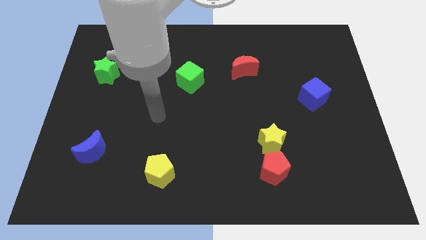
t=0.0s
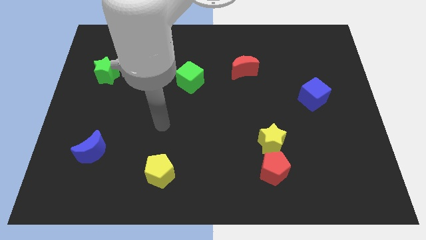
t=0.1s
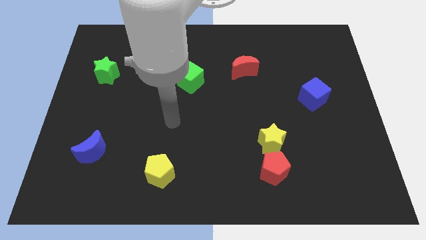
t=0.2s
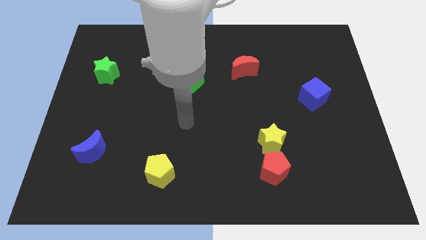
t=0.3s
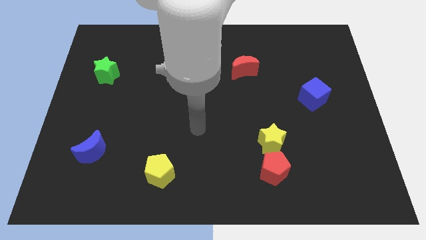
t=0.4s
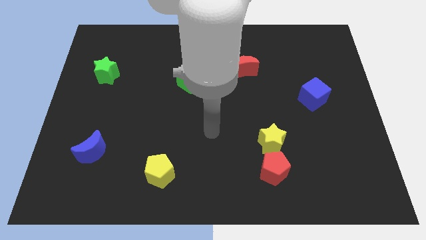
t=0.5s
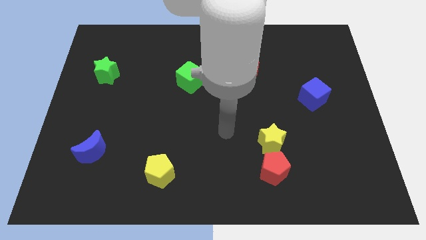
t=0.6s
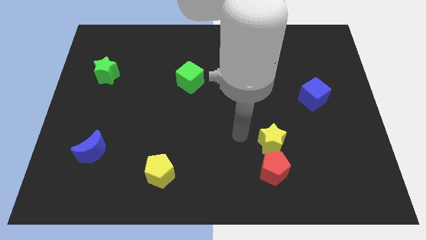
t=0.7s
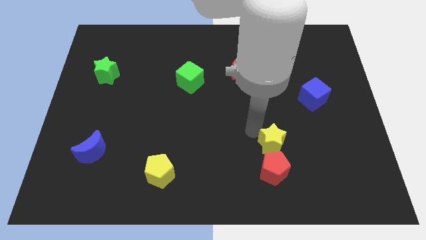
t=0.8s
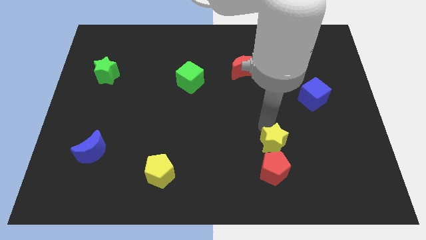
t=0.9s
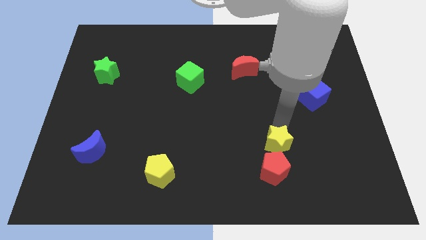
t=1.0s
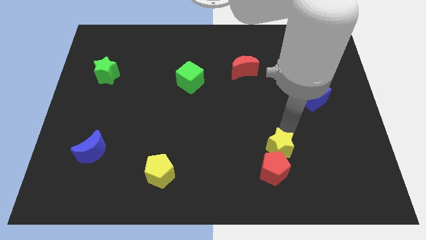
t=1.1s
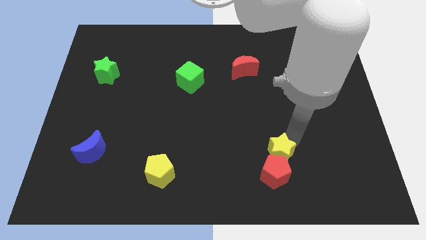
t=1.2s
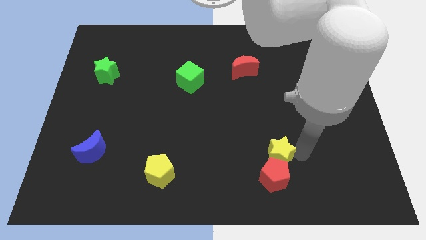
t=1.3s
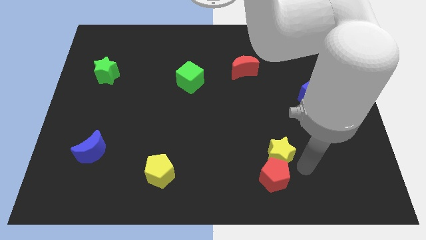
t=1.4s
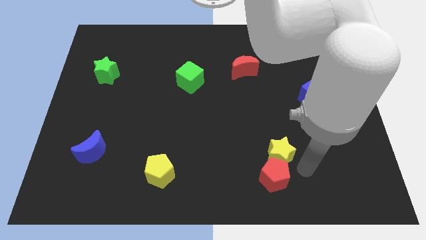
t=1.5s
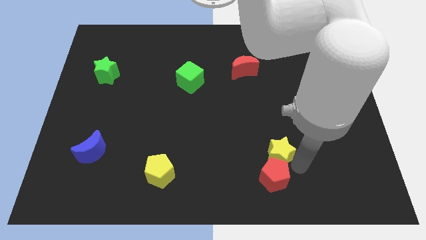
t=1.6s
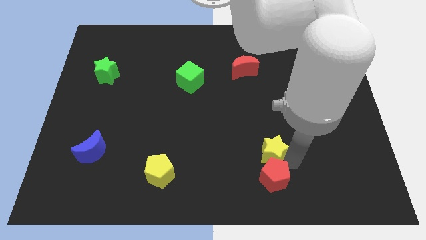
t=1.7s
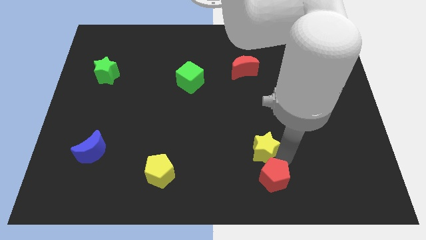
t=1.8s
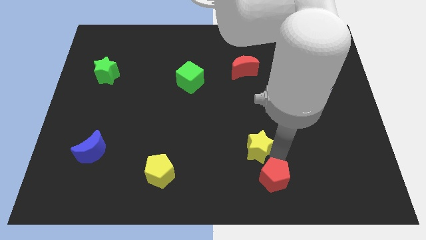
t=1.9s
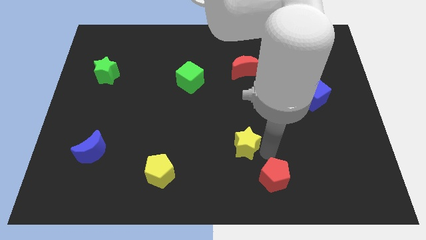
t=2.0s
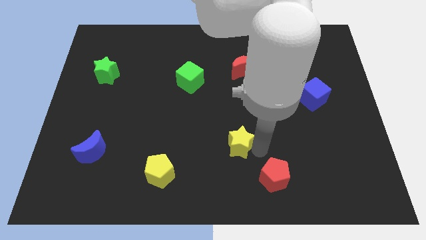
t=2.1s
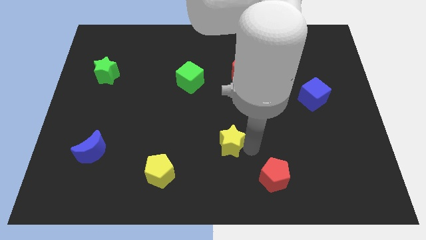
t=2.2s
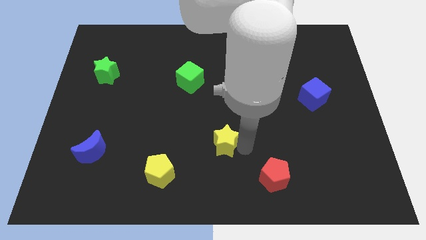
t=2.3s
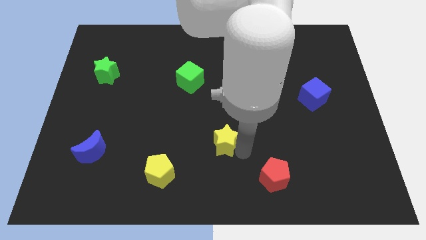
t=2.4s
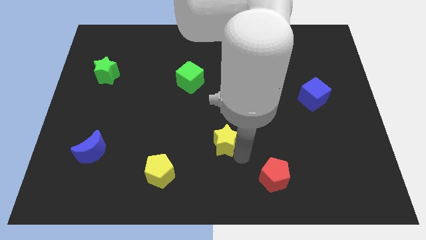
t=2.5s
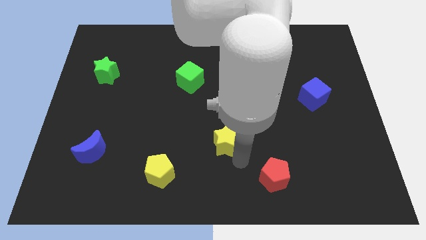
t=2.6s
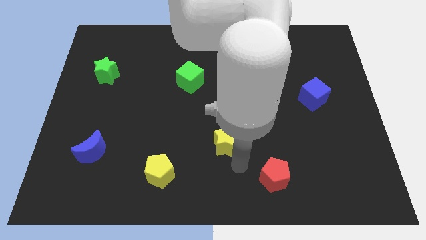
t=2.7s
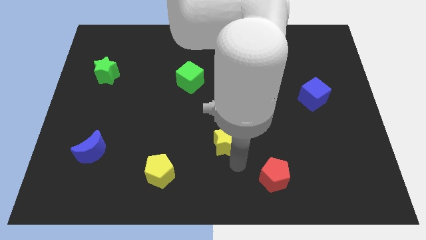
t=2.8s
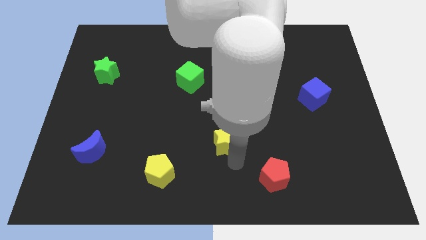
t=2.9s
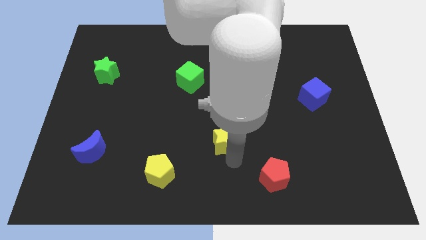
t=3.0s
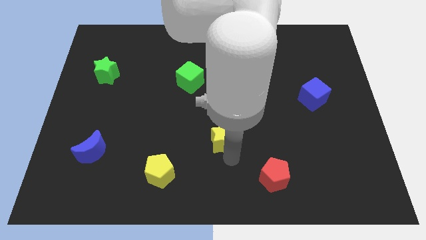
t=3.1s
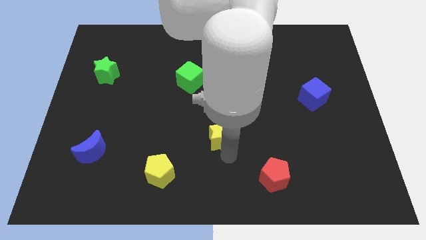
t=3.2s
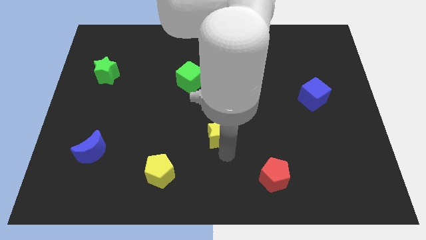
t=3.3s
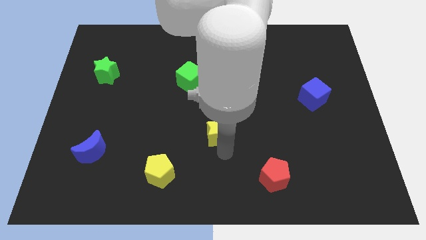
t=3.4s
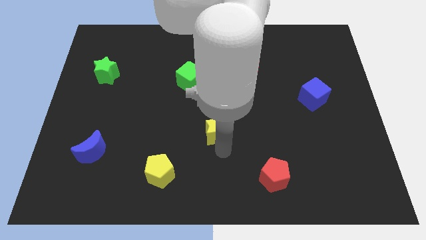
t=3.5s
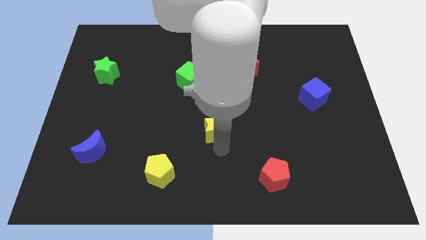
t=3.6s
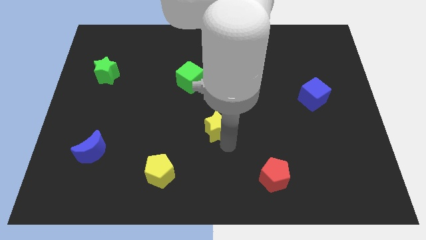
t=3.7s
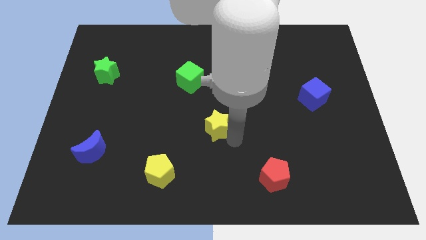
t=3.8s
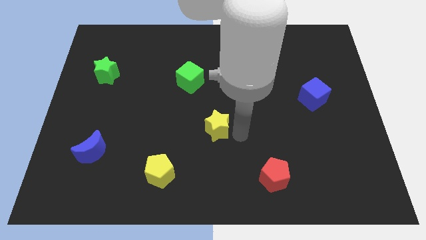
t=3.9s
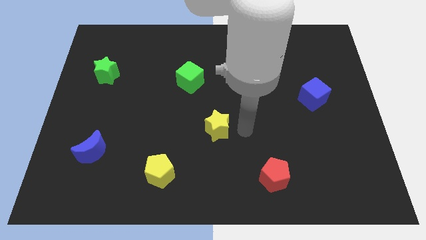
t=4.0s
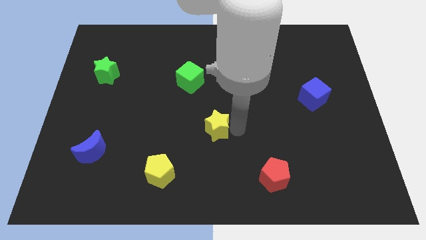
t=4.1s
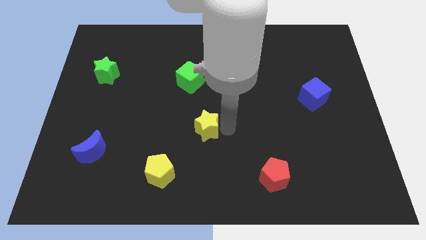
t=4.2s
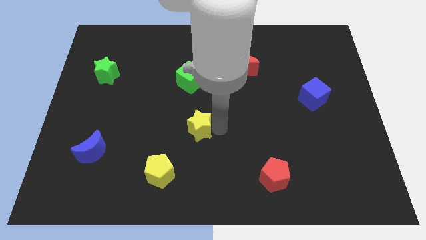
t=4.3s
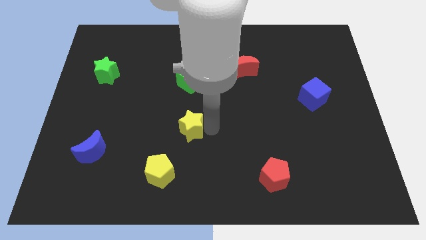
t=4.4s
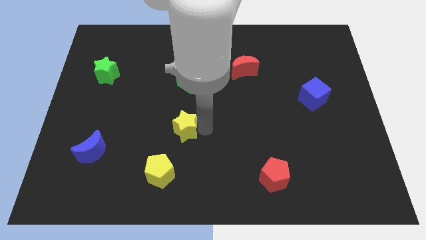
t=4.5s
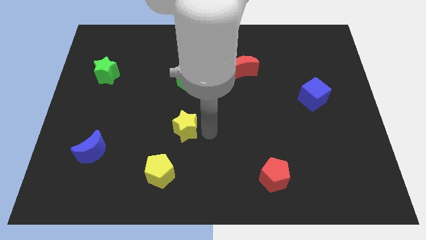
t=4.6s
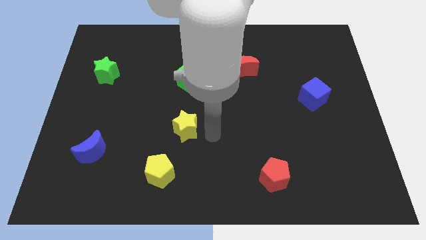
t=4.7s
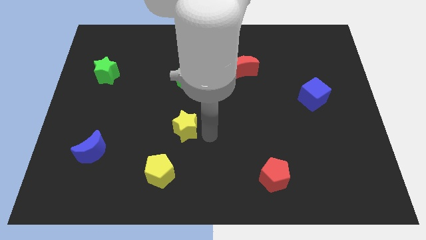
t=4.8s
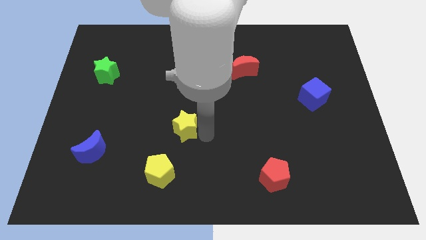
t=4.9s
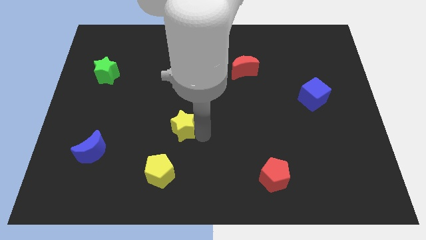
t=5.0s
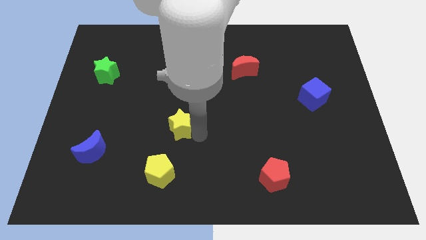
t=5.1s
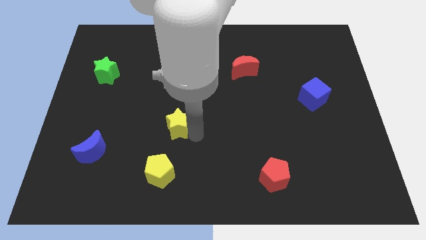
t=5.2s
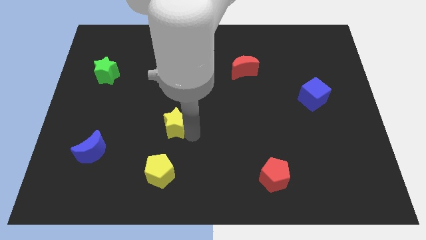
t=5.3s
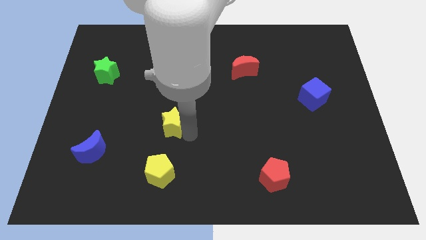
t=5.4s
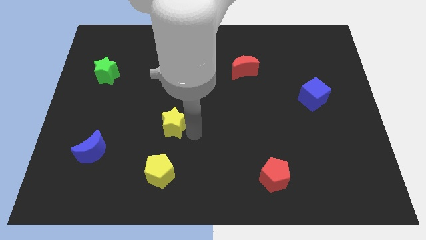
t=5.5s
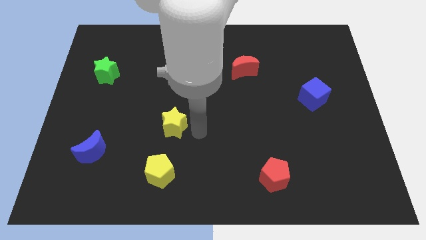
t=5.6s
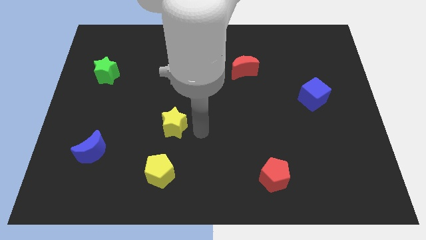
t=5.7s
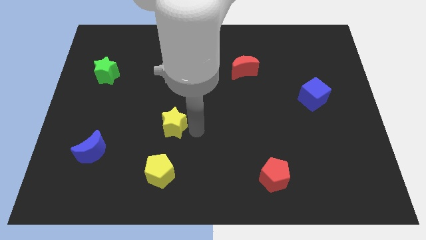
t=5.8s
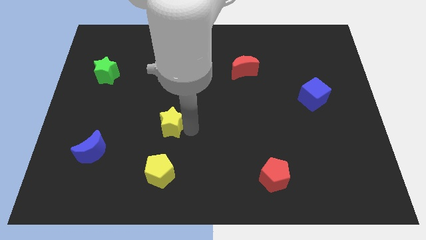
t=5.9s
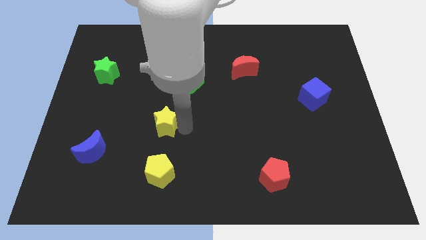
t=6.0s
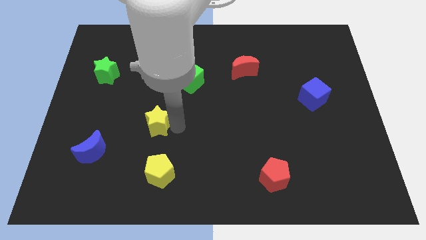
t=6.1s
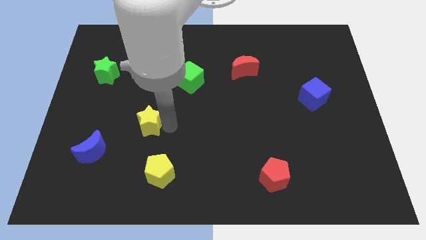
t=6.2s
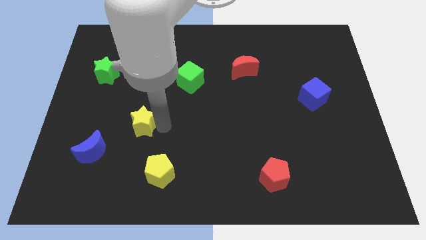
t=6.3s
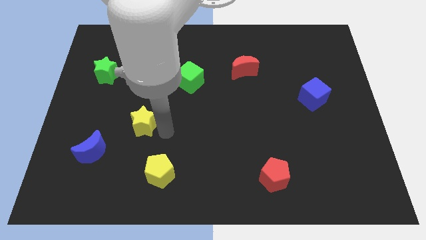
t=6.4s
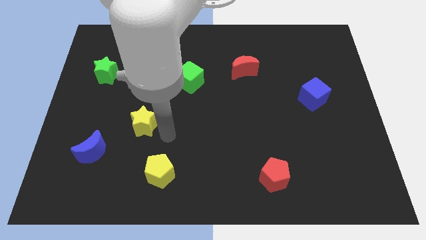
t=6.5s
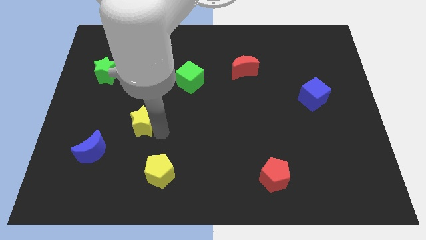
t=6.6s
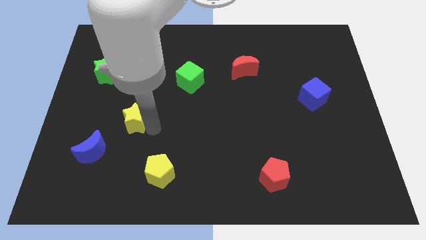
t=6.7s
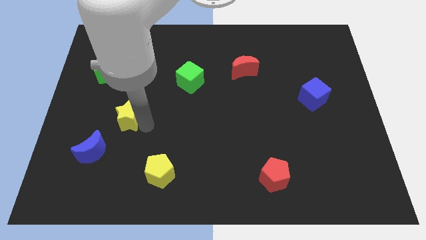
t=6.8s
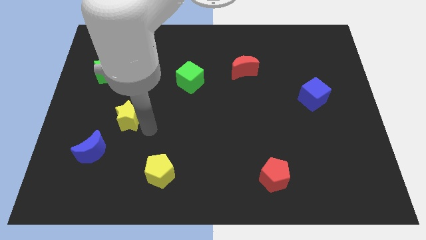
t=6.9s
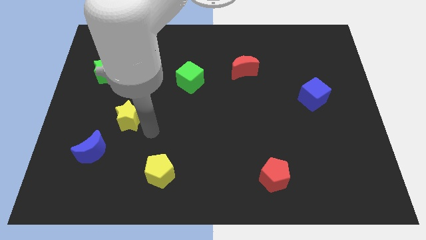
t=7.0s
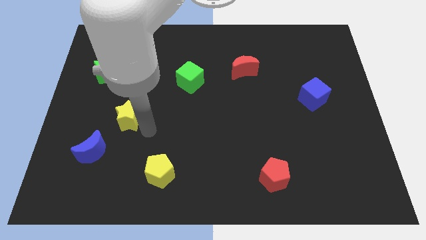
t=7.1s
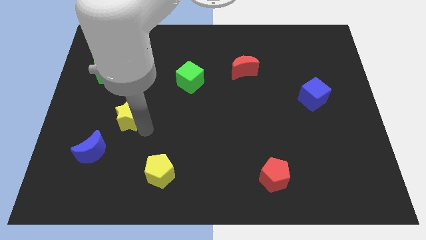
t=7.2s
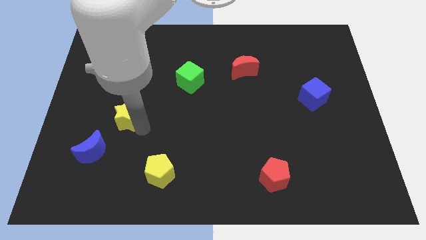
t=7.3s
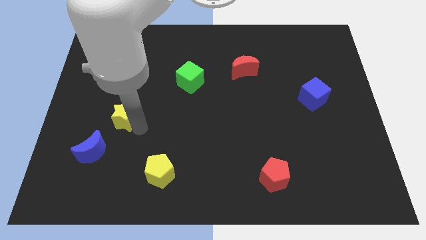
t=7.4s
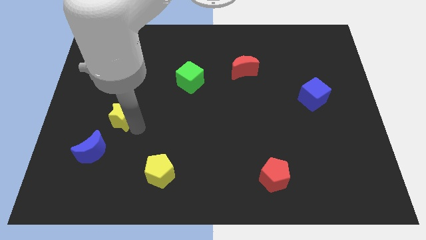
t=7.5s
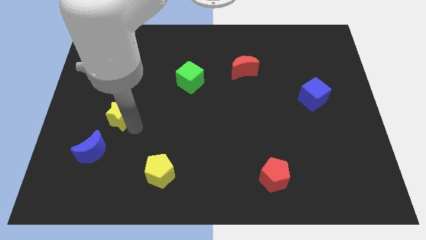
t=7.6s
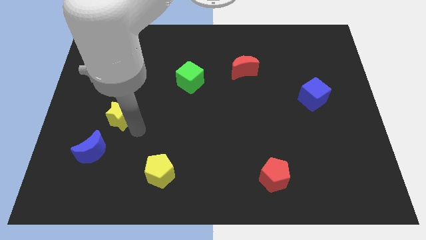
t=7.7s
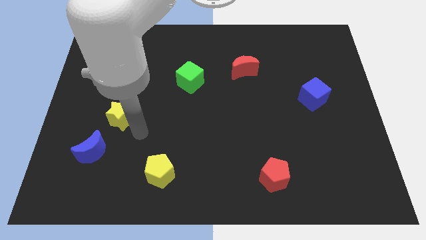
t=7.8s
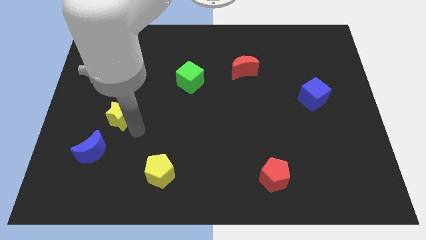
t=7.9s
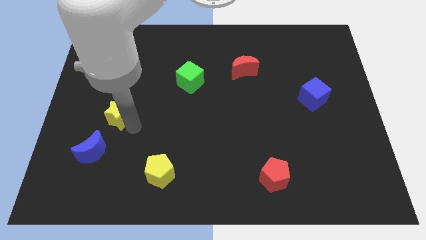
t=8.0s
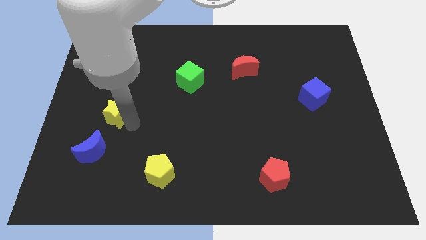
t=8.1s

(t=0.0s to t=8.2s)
move the yellow star to the bottom of the green star
